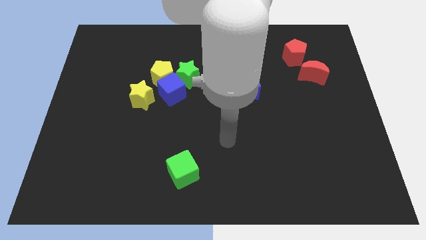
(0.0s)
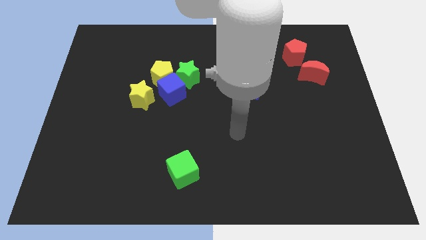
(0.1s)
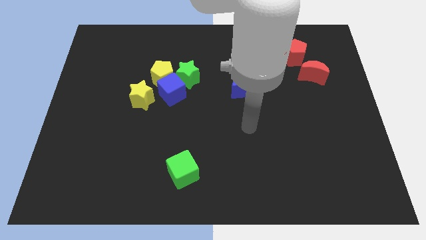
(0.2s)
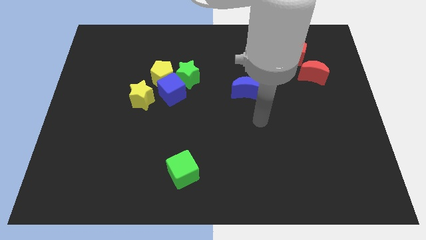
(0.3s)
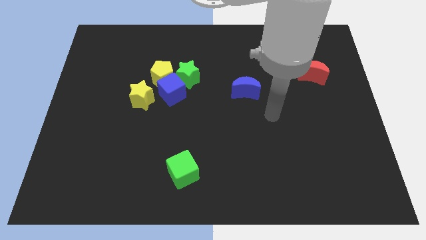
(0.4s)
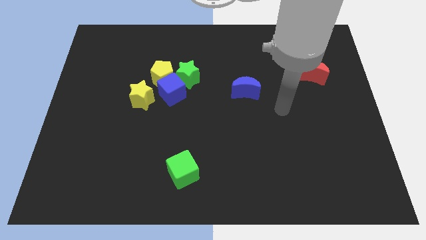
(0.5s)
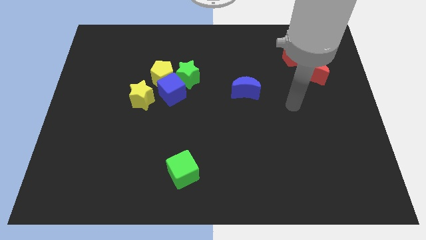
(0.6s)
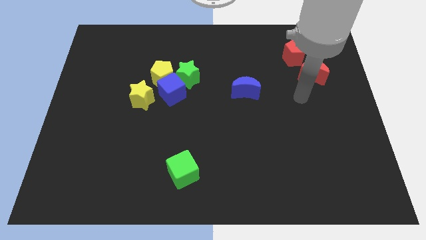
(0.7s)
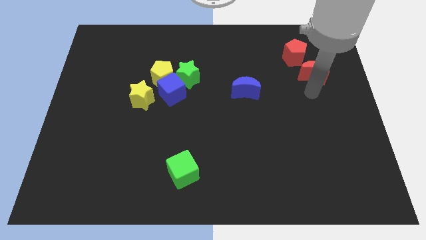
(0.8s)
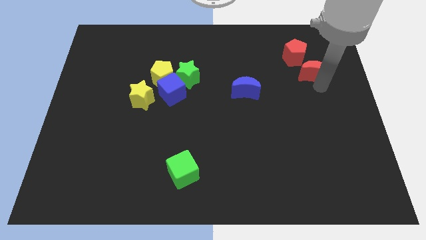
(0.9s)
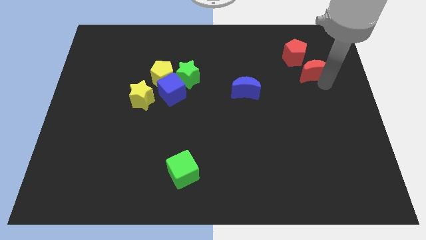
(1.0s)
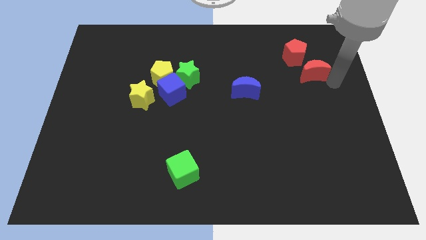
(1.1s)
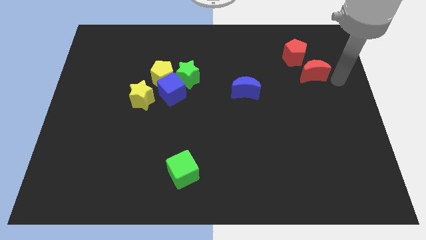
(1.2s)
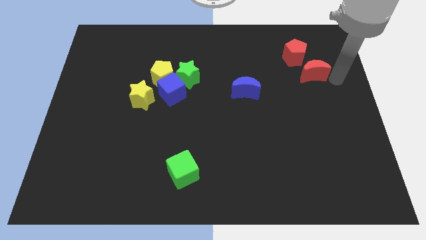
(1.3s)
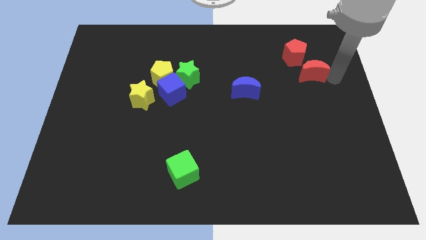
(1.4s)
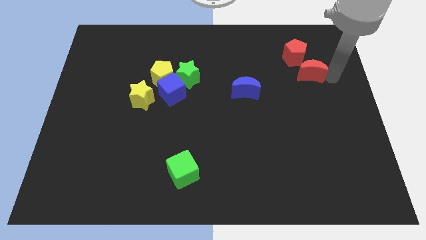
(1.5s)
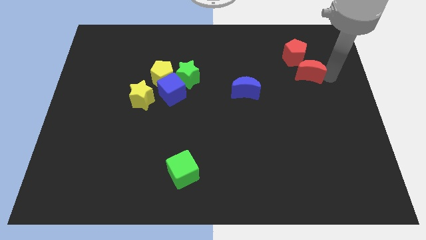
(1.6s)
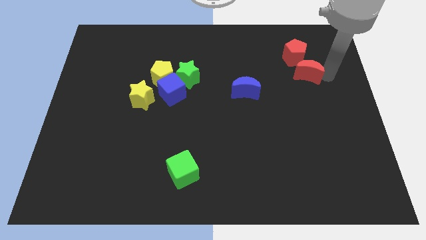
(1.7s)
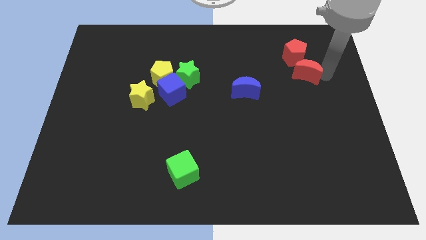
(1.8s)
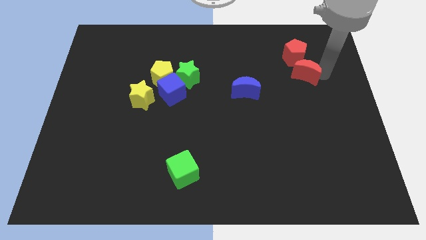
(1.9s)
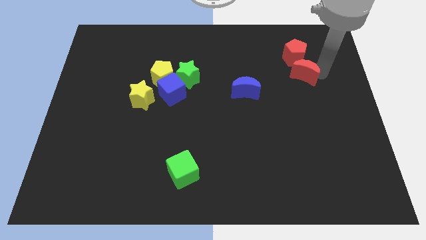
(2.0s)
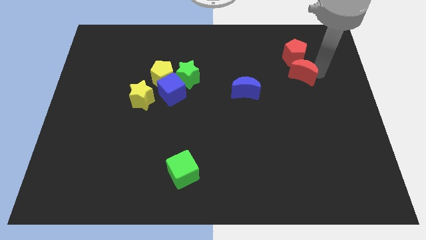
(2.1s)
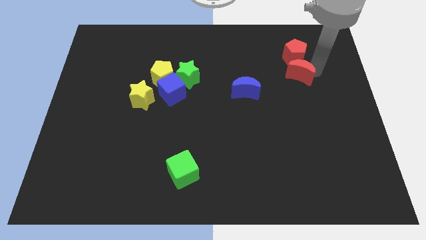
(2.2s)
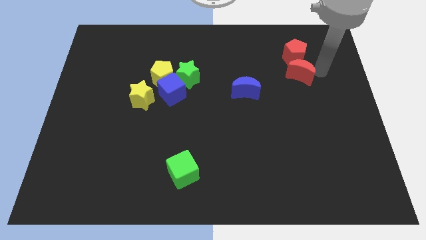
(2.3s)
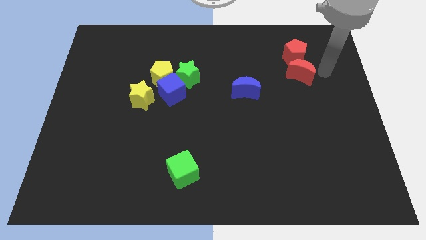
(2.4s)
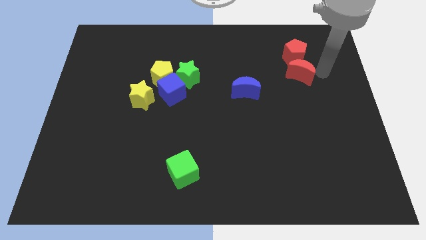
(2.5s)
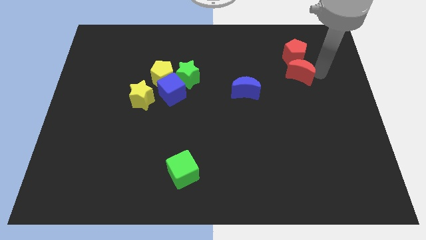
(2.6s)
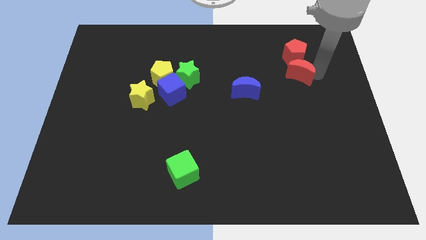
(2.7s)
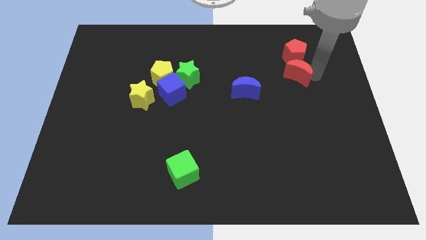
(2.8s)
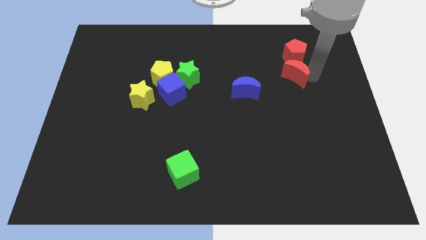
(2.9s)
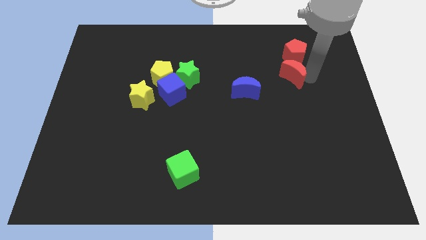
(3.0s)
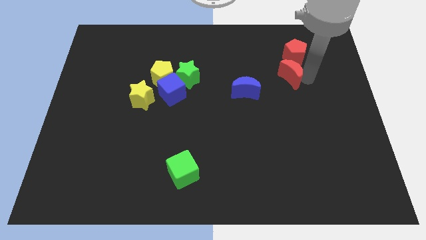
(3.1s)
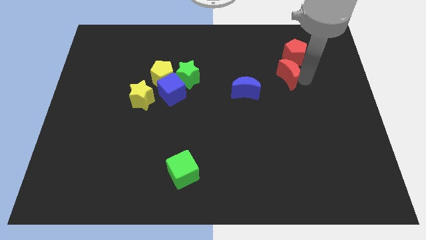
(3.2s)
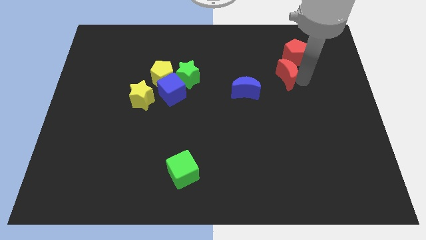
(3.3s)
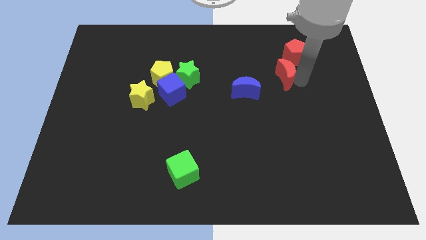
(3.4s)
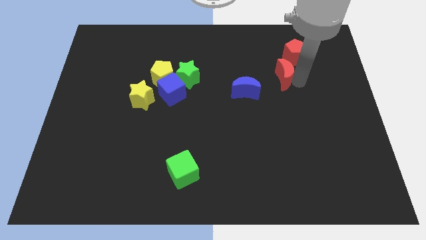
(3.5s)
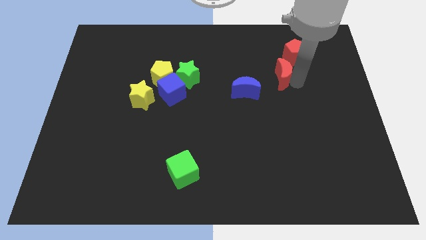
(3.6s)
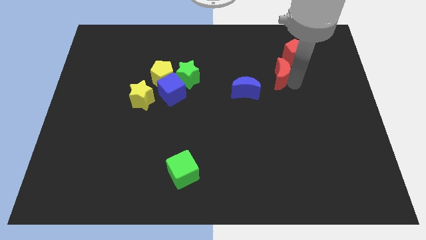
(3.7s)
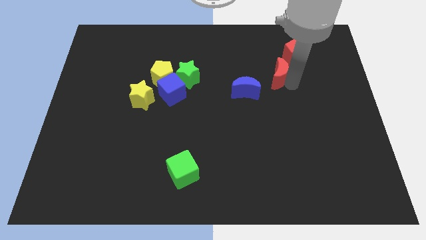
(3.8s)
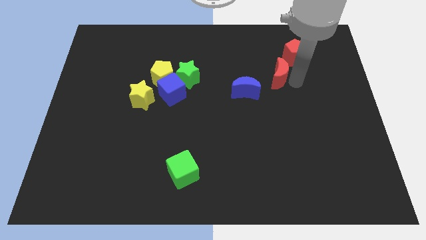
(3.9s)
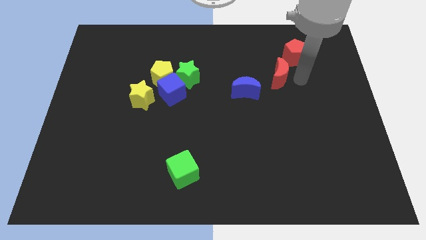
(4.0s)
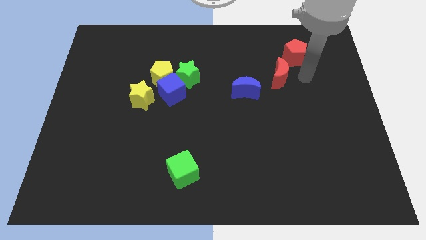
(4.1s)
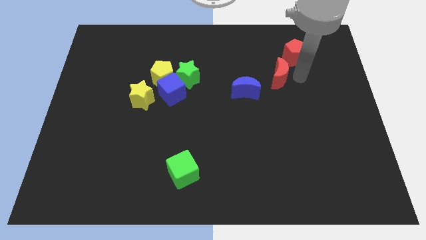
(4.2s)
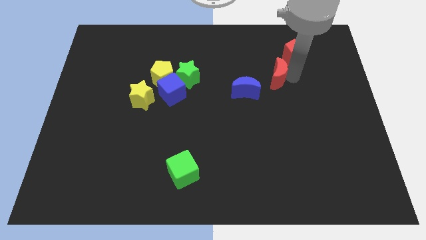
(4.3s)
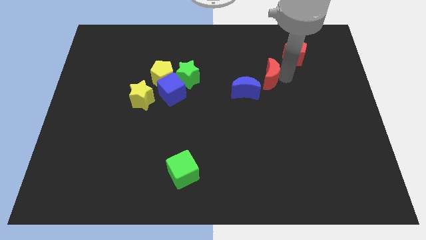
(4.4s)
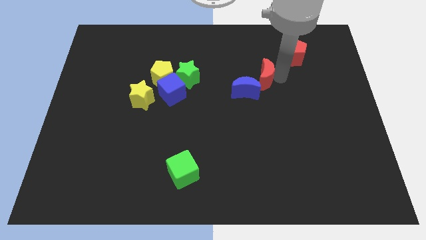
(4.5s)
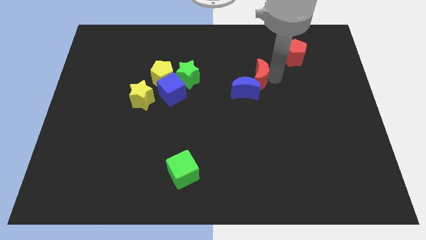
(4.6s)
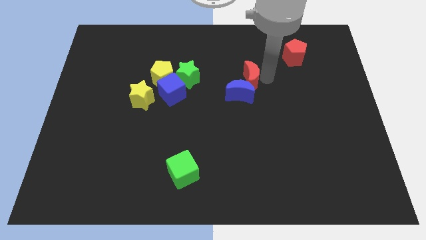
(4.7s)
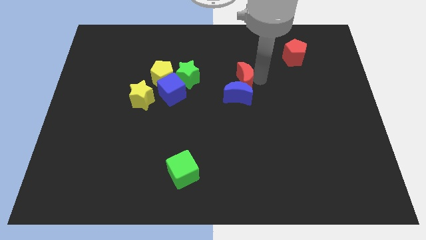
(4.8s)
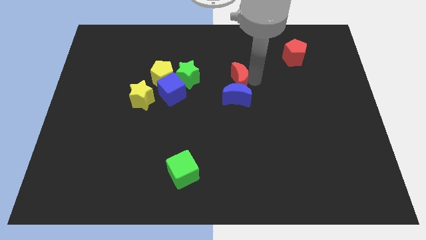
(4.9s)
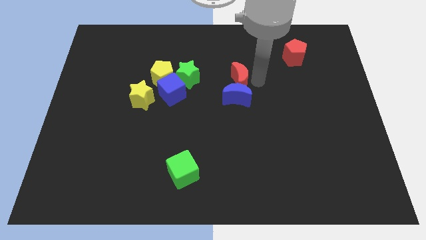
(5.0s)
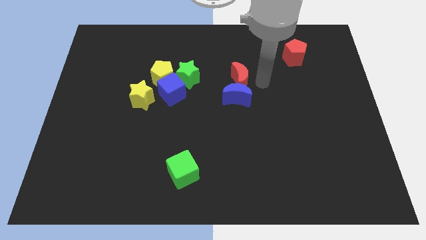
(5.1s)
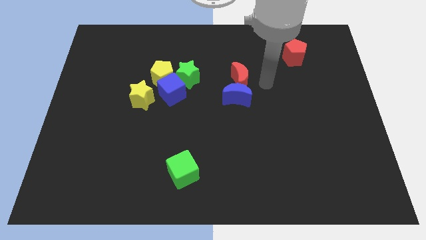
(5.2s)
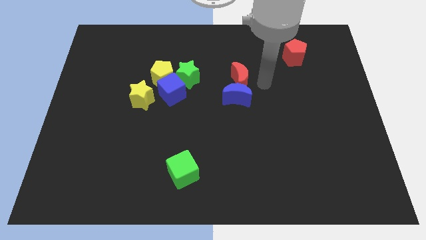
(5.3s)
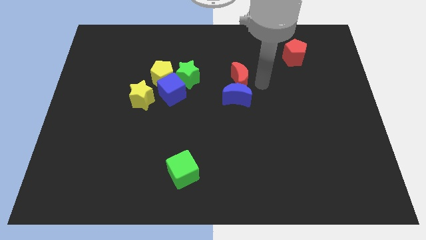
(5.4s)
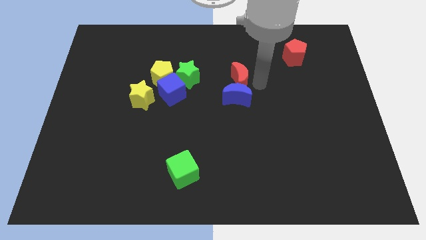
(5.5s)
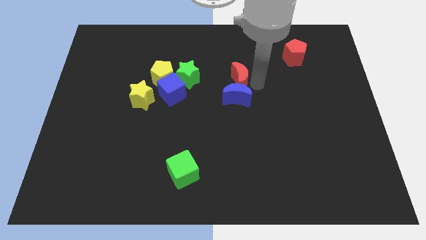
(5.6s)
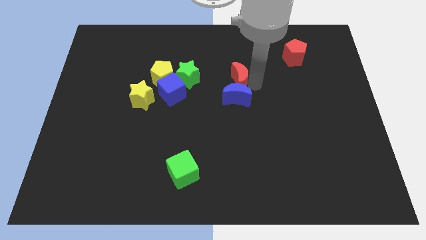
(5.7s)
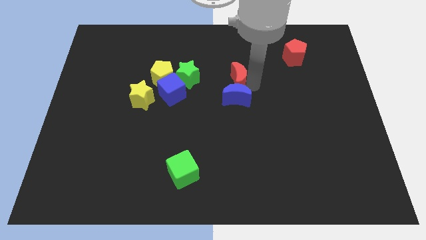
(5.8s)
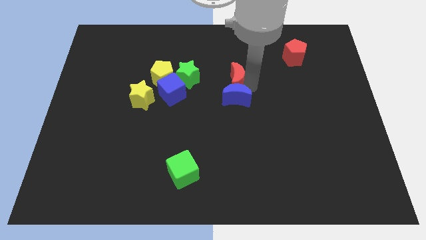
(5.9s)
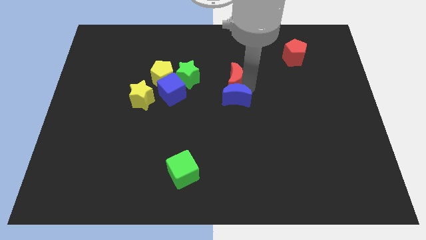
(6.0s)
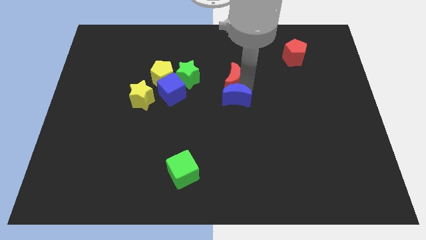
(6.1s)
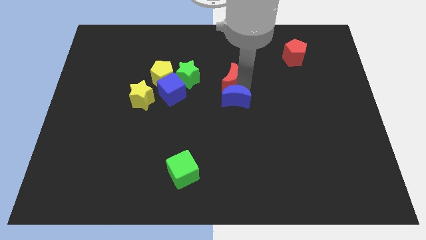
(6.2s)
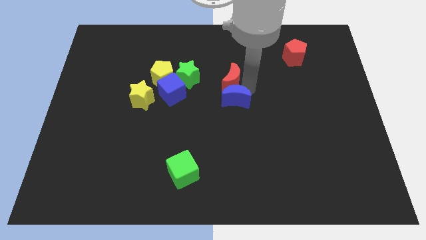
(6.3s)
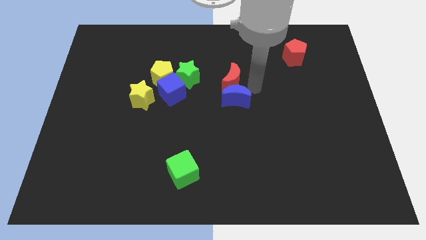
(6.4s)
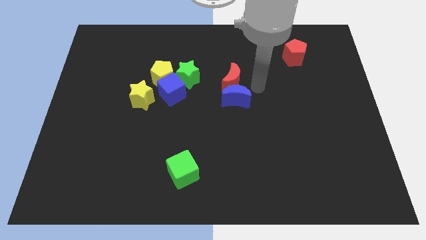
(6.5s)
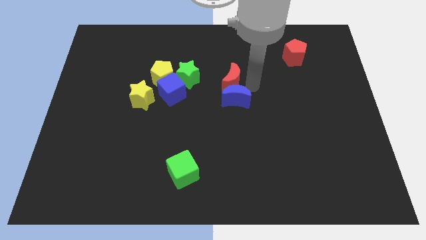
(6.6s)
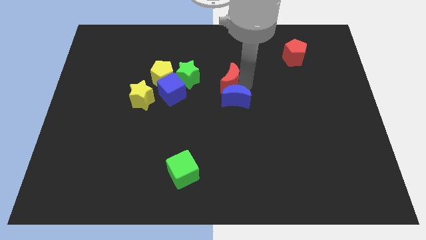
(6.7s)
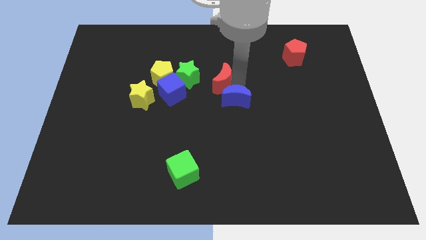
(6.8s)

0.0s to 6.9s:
slide the red moon to the right side of the yellow pentagon
